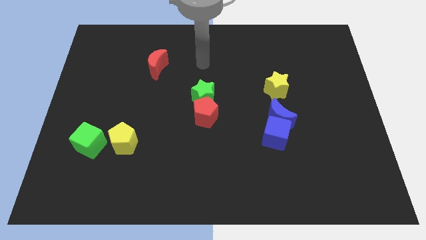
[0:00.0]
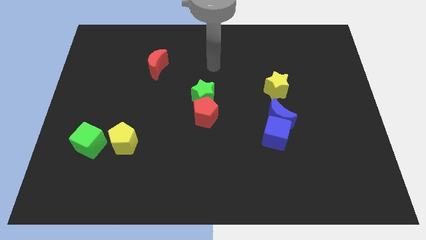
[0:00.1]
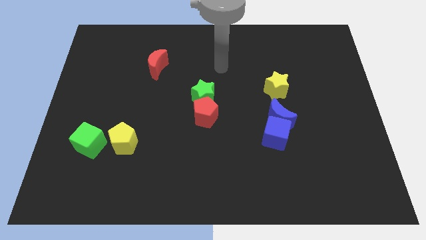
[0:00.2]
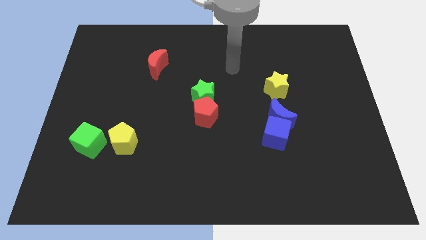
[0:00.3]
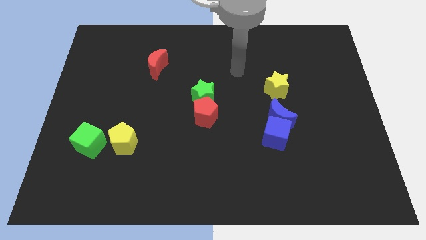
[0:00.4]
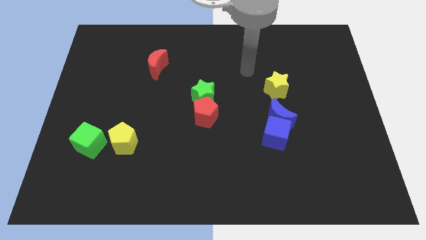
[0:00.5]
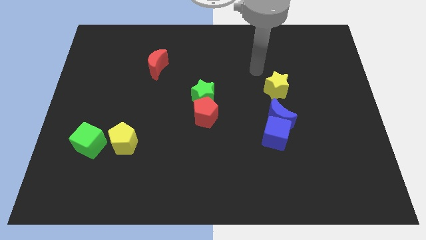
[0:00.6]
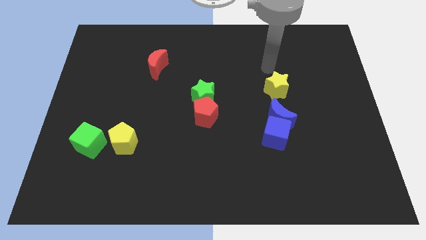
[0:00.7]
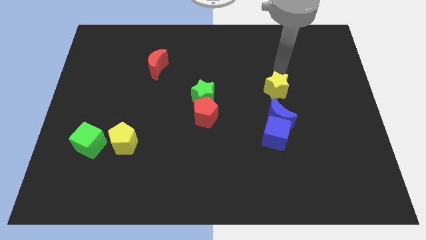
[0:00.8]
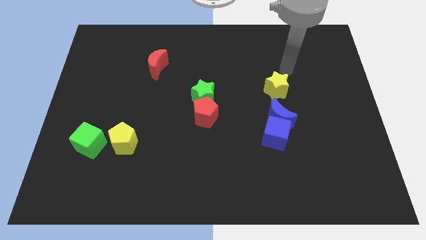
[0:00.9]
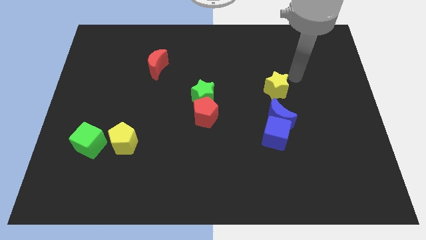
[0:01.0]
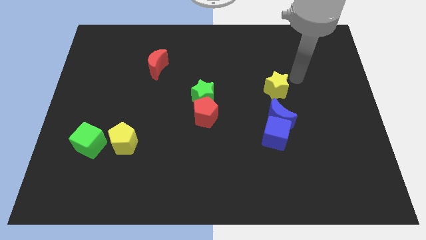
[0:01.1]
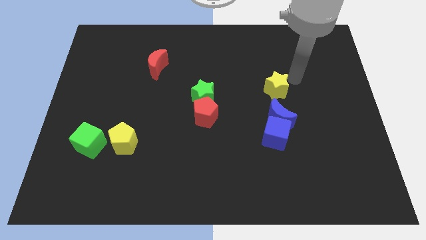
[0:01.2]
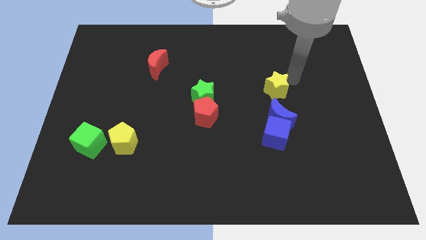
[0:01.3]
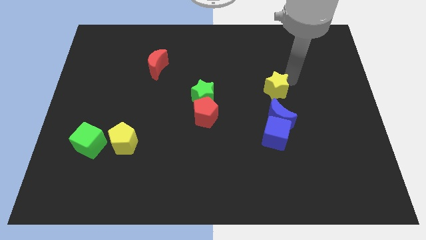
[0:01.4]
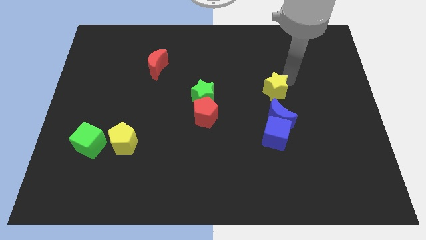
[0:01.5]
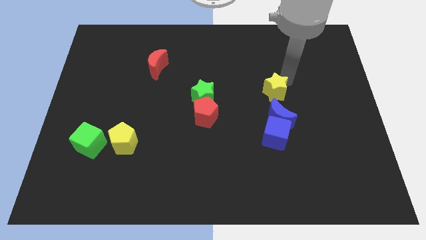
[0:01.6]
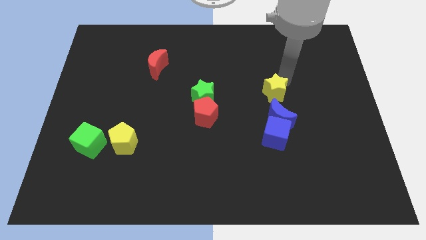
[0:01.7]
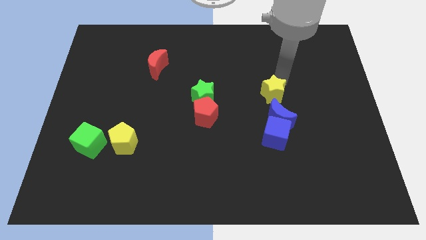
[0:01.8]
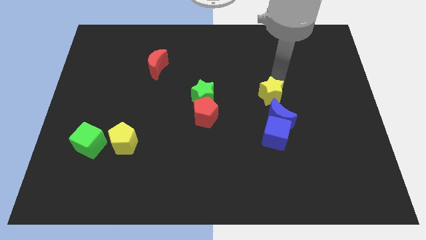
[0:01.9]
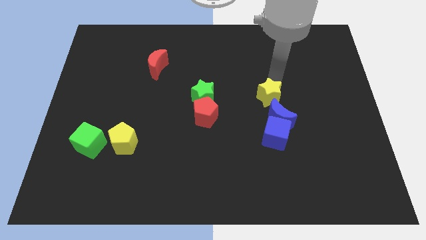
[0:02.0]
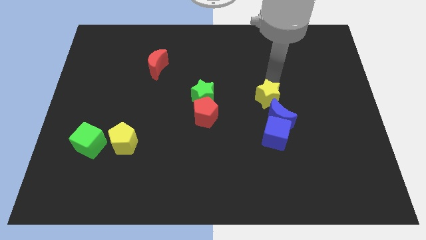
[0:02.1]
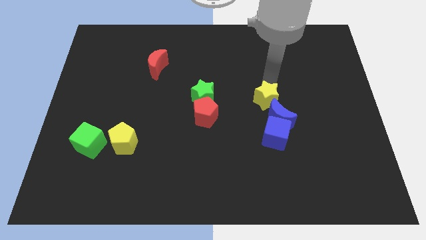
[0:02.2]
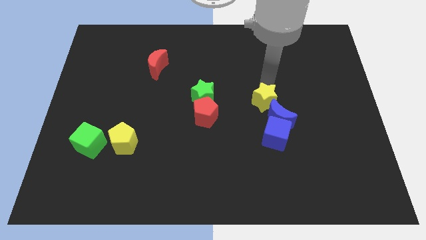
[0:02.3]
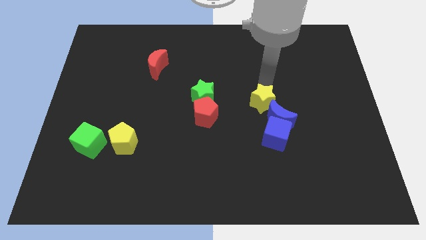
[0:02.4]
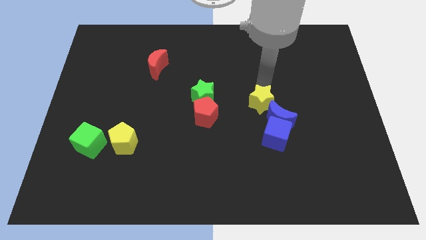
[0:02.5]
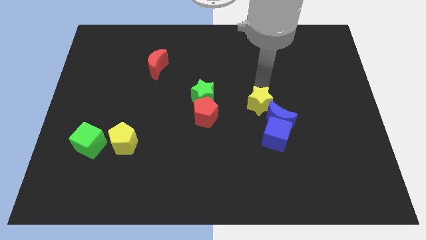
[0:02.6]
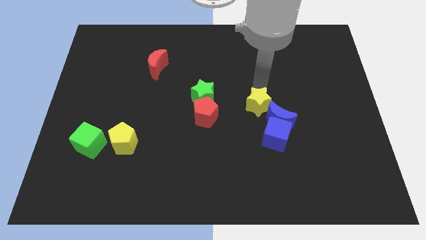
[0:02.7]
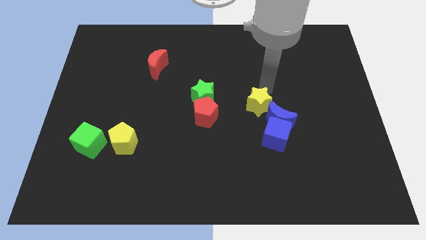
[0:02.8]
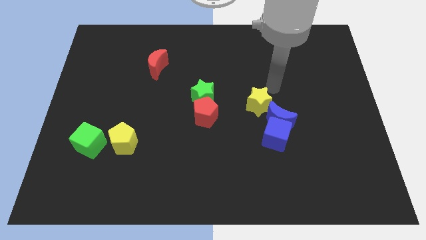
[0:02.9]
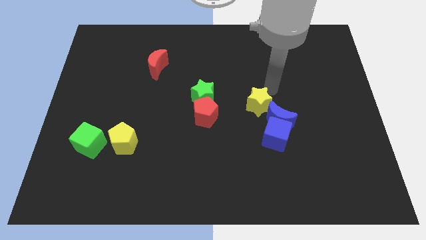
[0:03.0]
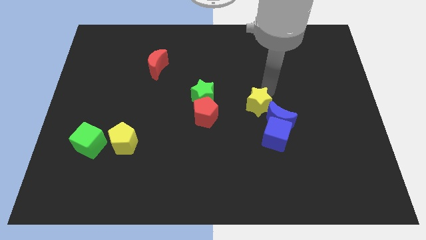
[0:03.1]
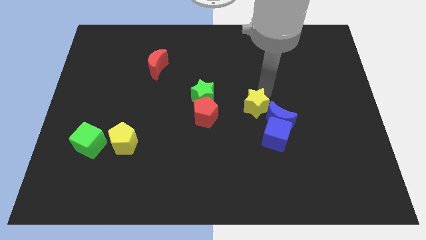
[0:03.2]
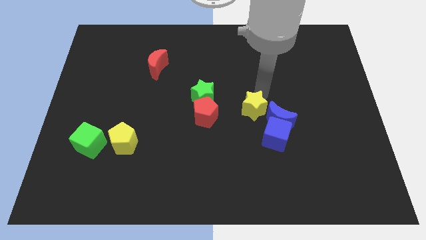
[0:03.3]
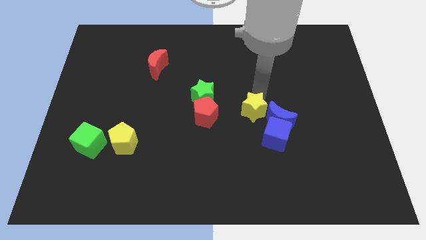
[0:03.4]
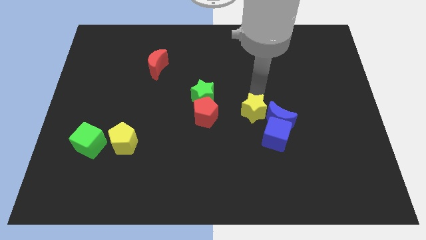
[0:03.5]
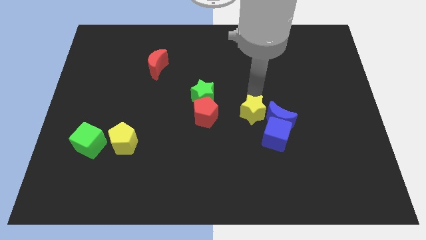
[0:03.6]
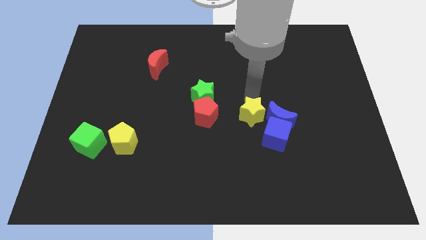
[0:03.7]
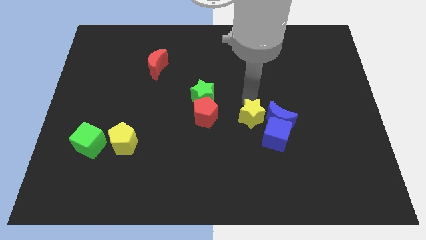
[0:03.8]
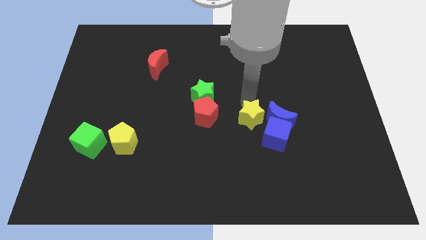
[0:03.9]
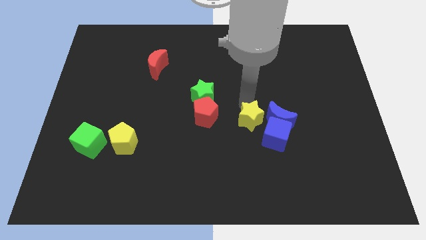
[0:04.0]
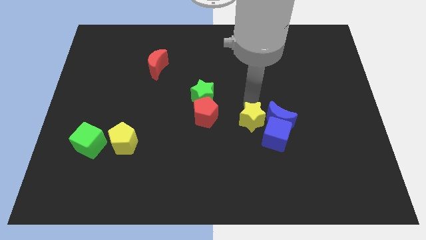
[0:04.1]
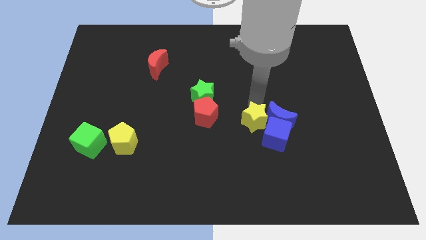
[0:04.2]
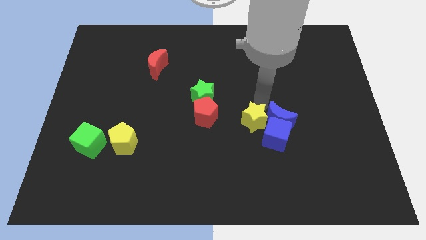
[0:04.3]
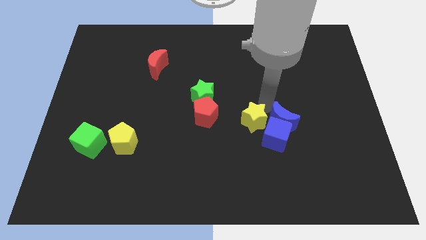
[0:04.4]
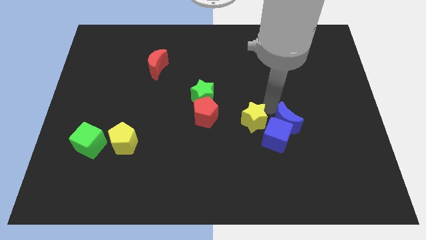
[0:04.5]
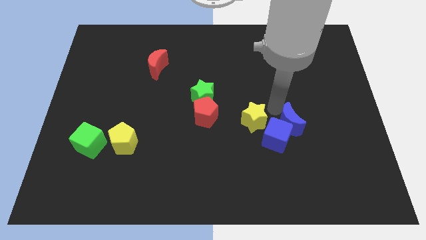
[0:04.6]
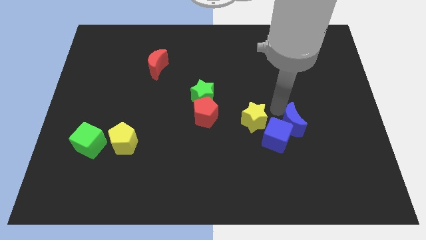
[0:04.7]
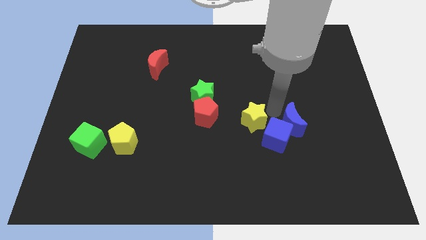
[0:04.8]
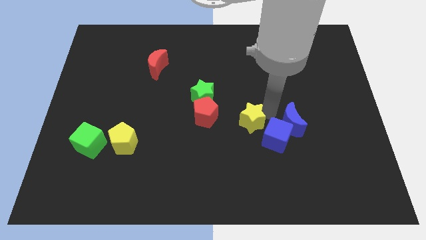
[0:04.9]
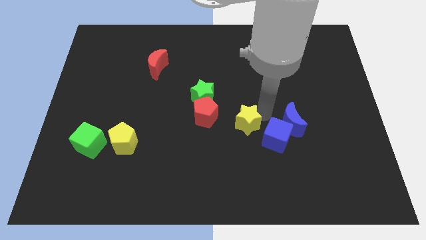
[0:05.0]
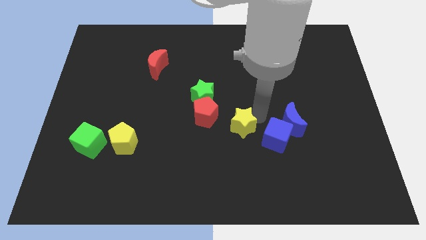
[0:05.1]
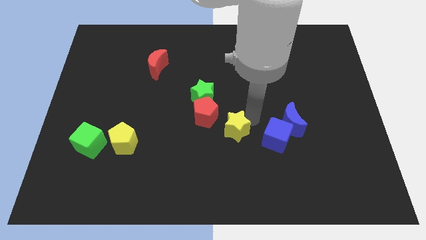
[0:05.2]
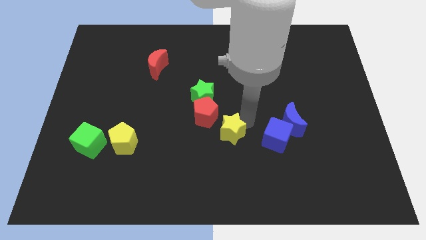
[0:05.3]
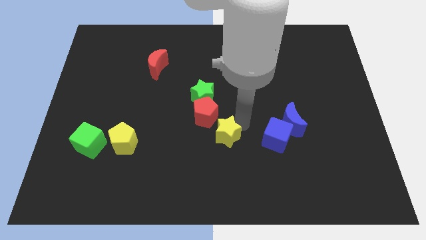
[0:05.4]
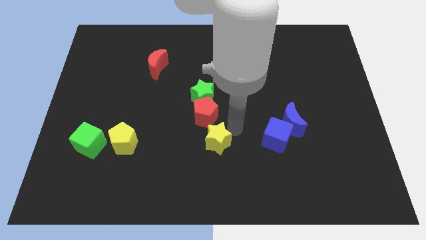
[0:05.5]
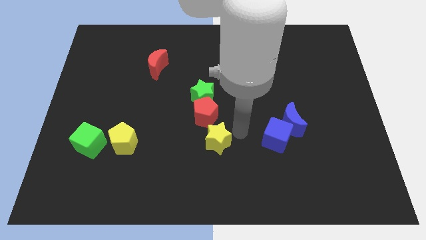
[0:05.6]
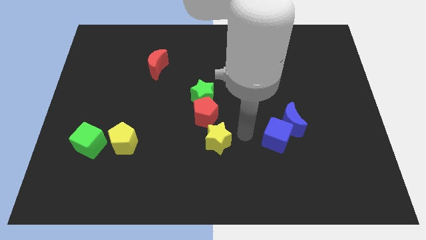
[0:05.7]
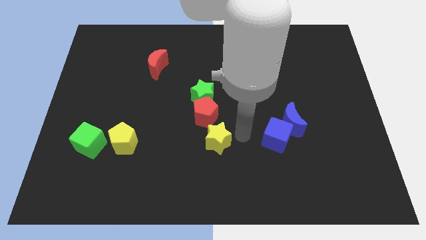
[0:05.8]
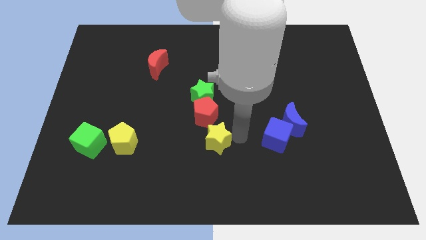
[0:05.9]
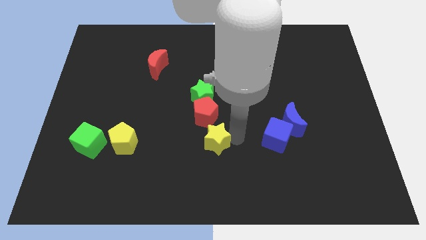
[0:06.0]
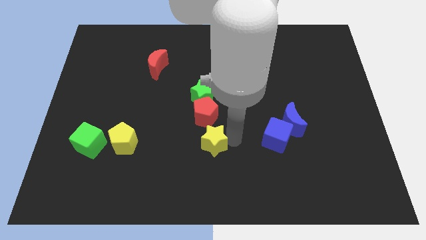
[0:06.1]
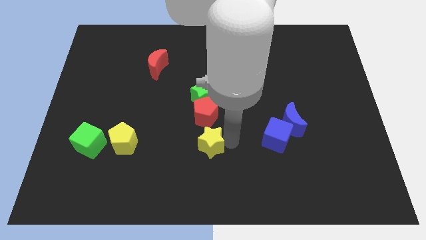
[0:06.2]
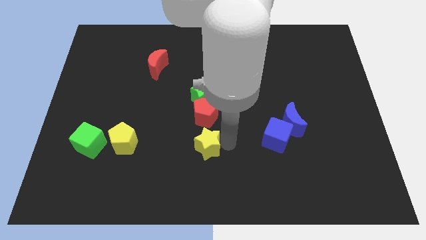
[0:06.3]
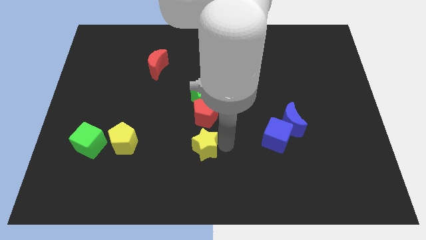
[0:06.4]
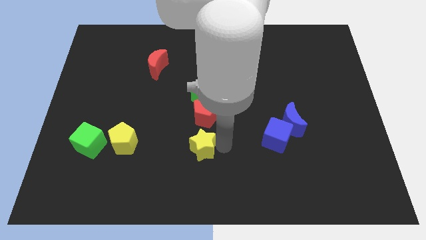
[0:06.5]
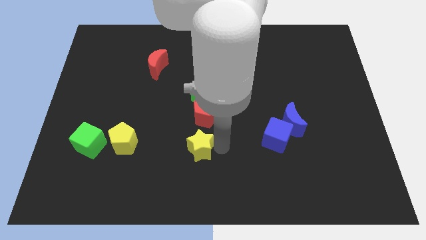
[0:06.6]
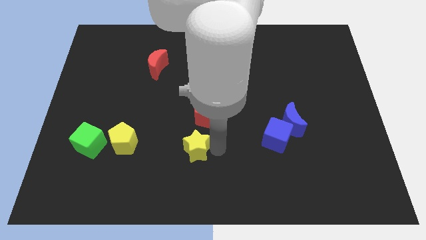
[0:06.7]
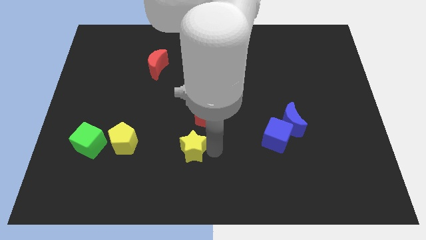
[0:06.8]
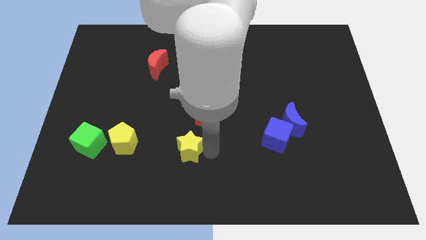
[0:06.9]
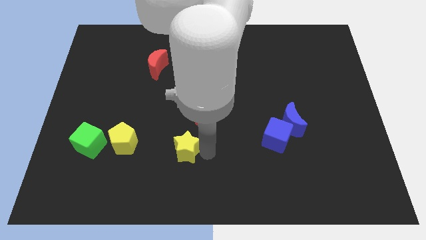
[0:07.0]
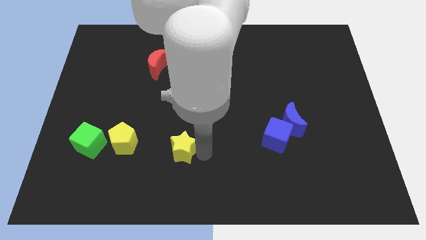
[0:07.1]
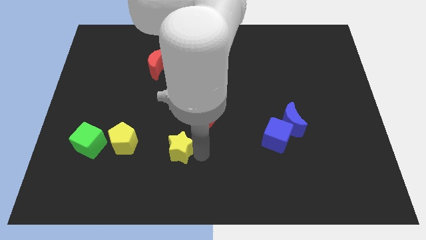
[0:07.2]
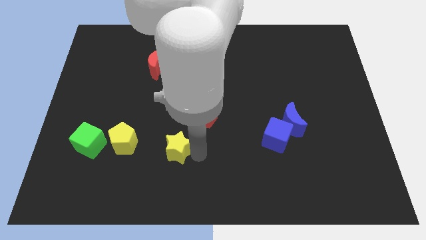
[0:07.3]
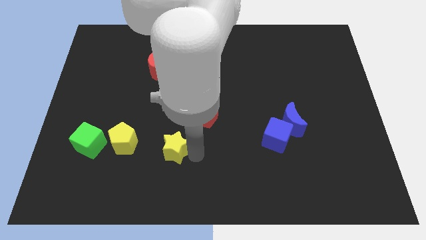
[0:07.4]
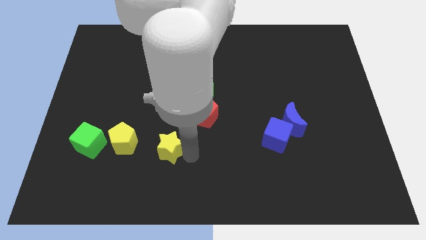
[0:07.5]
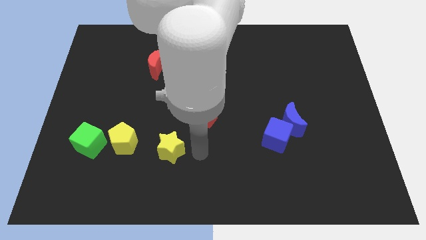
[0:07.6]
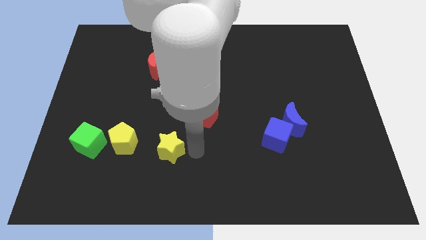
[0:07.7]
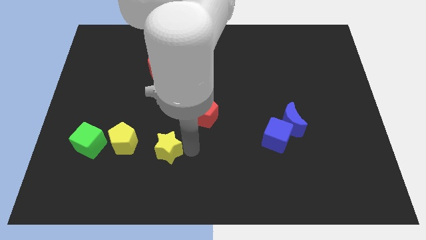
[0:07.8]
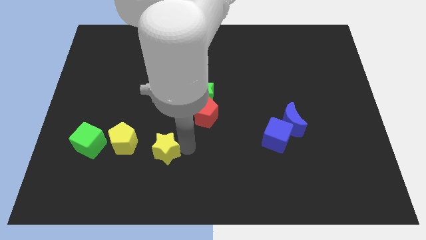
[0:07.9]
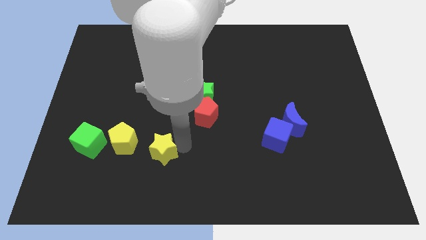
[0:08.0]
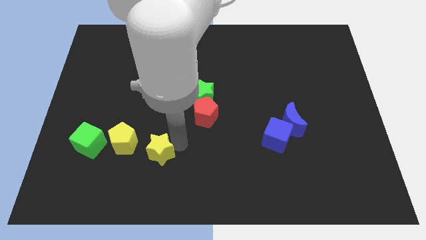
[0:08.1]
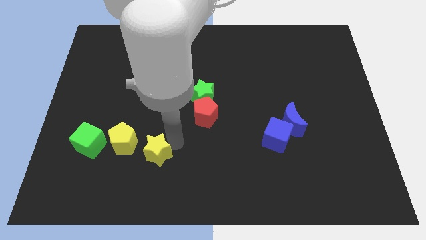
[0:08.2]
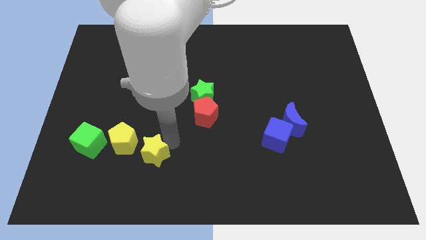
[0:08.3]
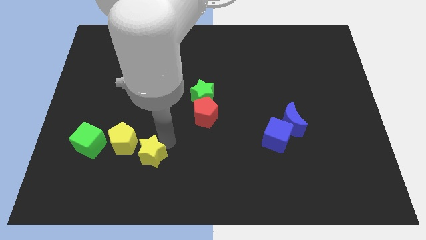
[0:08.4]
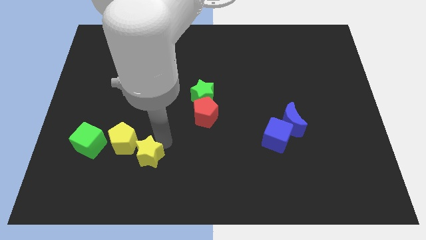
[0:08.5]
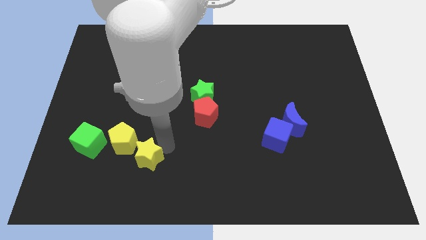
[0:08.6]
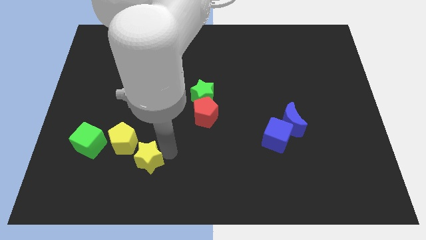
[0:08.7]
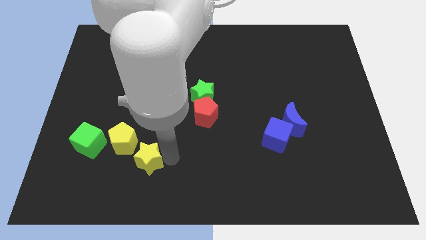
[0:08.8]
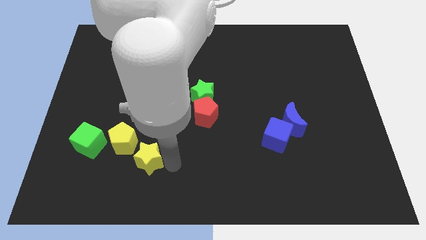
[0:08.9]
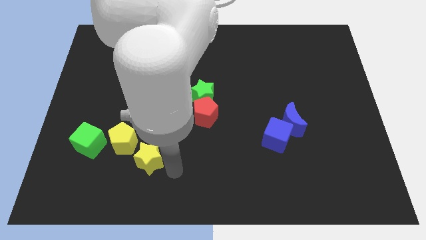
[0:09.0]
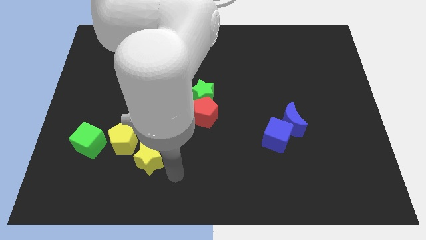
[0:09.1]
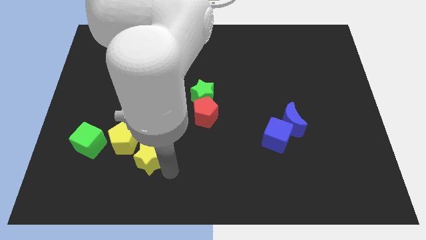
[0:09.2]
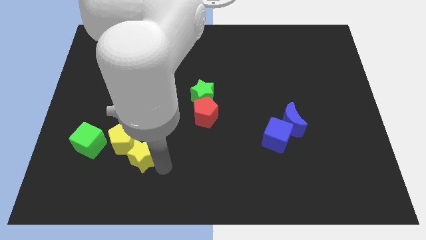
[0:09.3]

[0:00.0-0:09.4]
put the yellow star close to the yellow pentagon
